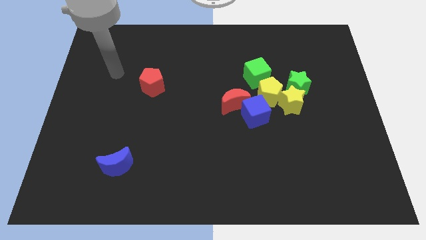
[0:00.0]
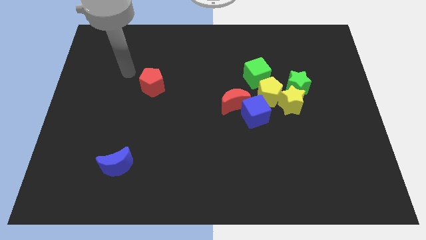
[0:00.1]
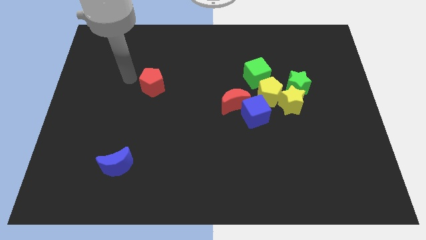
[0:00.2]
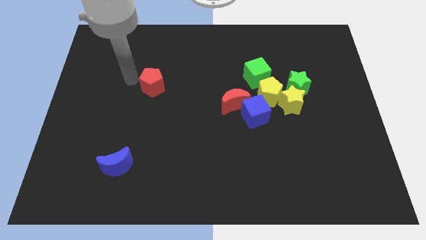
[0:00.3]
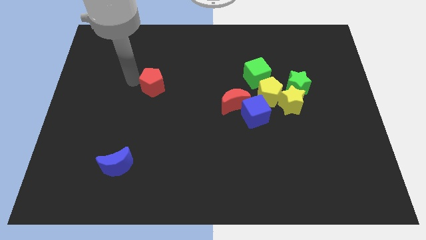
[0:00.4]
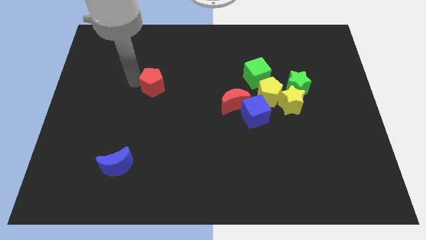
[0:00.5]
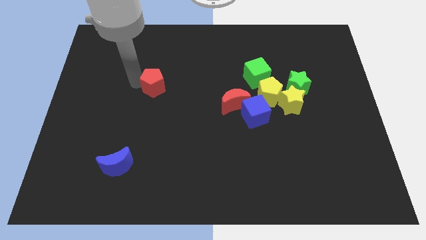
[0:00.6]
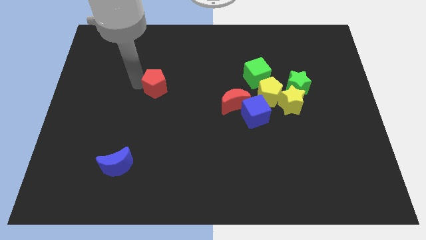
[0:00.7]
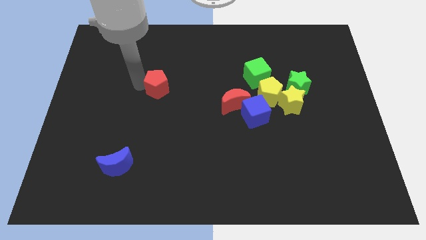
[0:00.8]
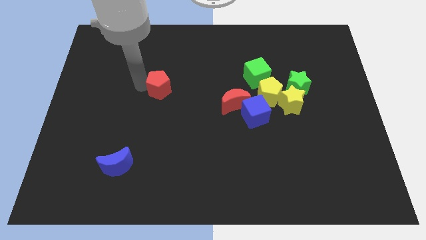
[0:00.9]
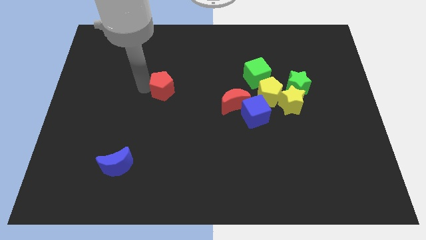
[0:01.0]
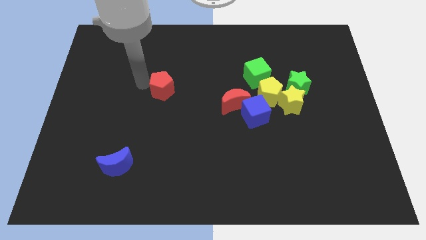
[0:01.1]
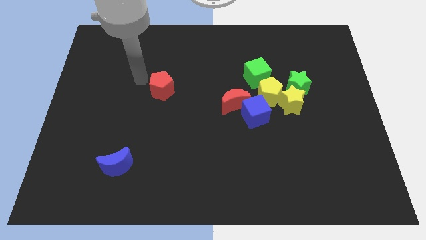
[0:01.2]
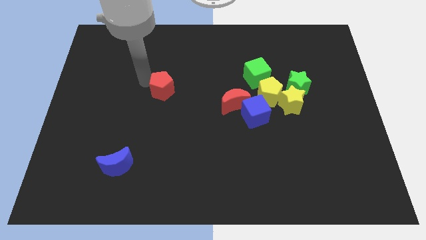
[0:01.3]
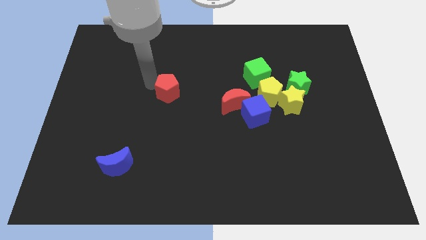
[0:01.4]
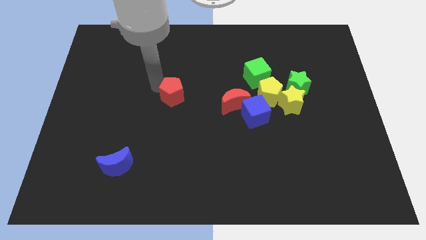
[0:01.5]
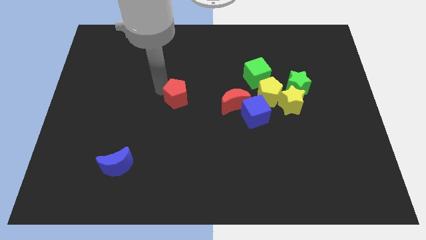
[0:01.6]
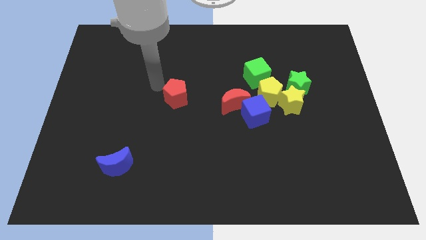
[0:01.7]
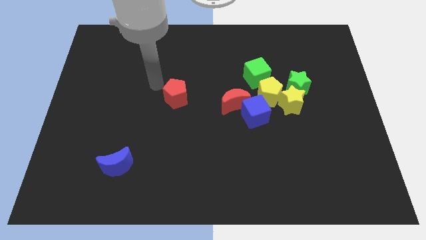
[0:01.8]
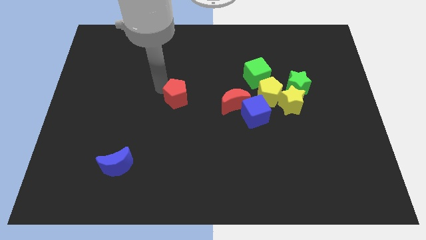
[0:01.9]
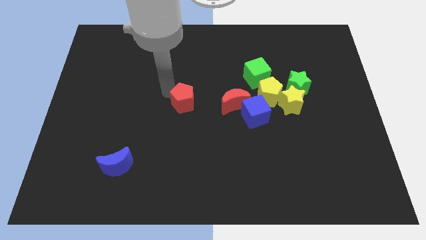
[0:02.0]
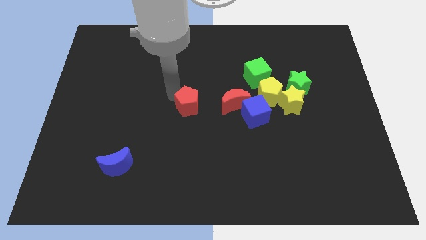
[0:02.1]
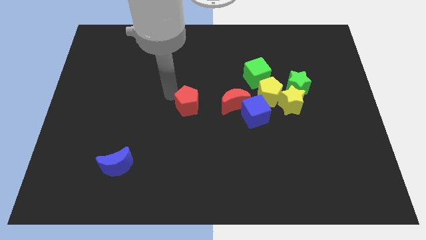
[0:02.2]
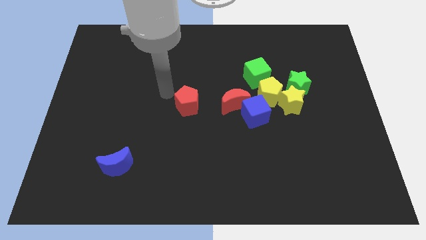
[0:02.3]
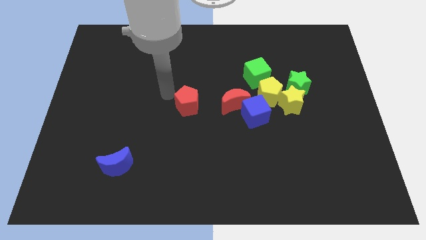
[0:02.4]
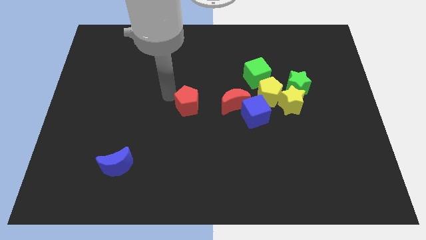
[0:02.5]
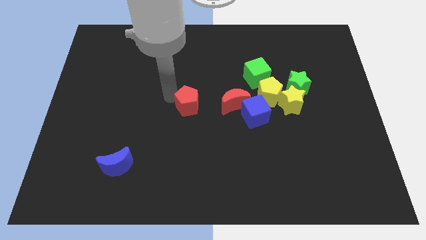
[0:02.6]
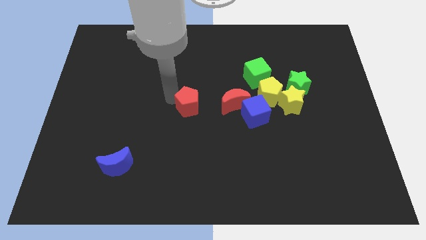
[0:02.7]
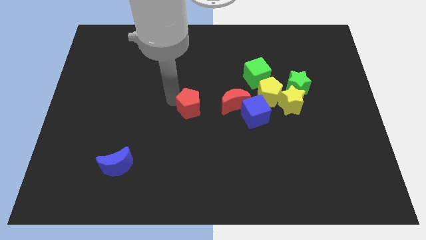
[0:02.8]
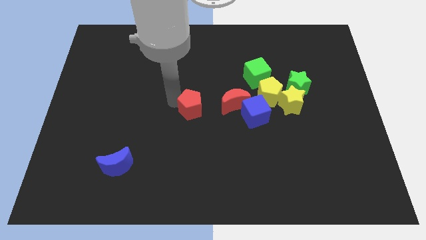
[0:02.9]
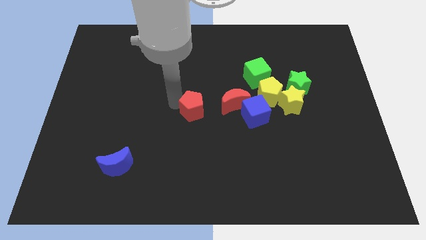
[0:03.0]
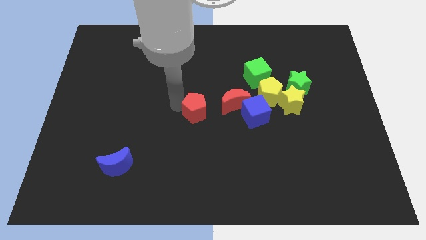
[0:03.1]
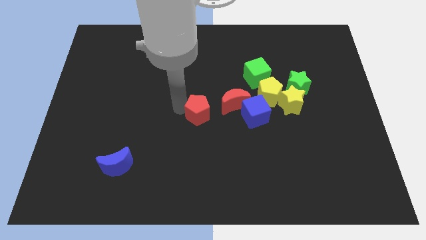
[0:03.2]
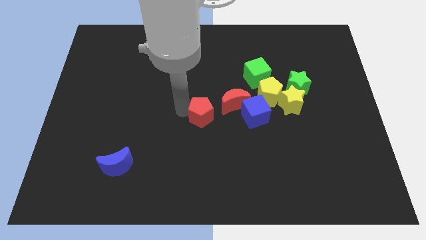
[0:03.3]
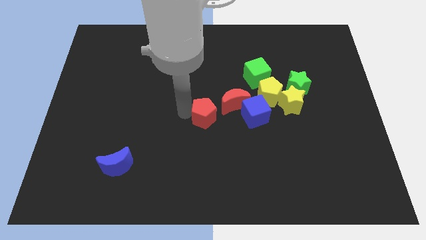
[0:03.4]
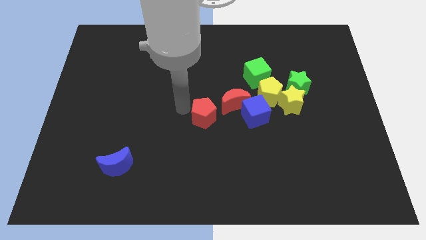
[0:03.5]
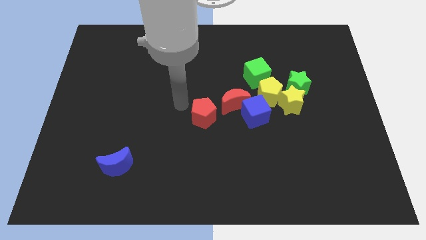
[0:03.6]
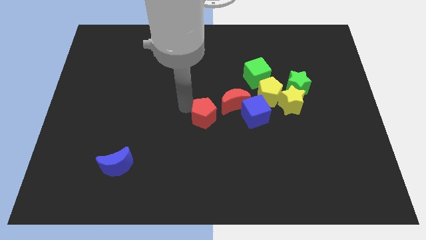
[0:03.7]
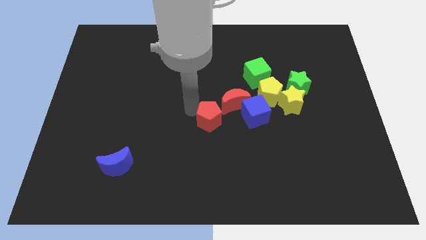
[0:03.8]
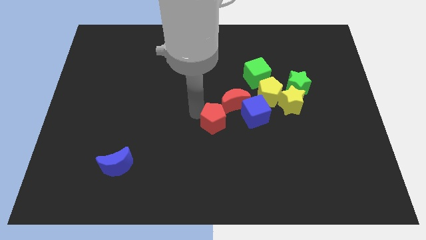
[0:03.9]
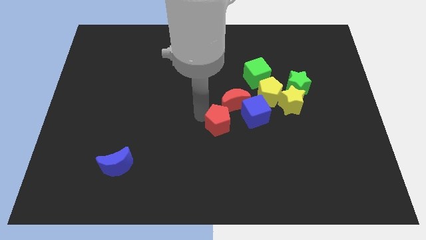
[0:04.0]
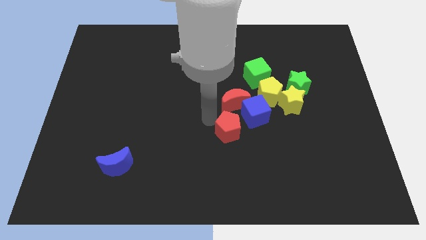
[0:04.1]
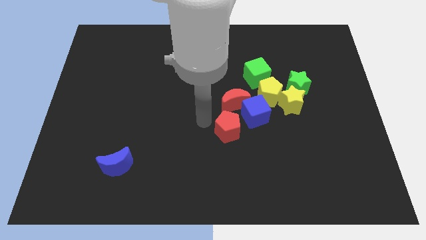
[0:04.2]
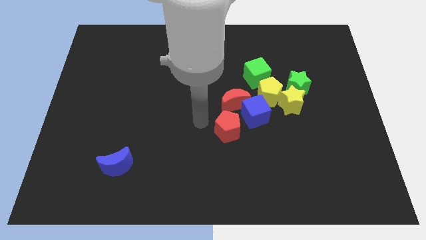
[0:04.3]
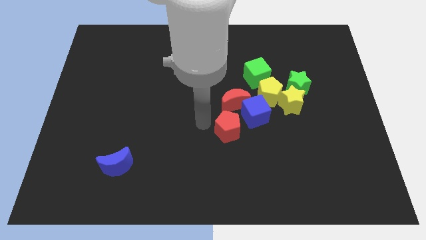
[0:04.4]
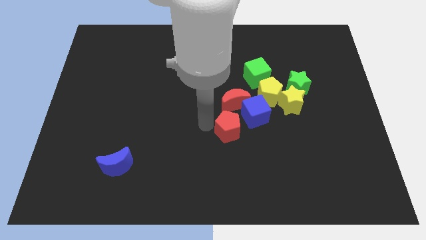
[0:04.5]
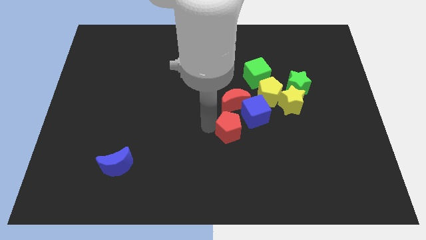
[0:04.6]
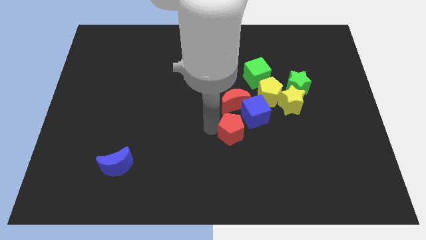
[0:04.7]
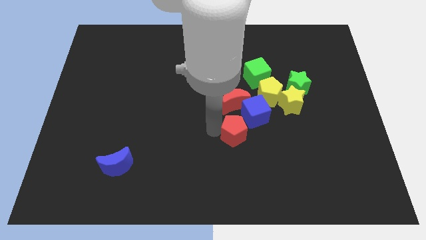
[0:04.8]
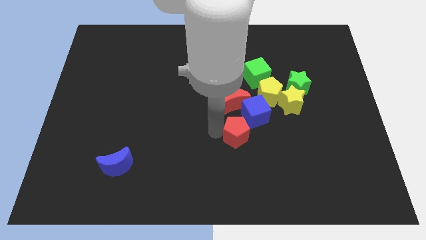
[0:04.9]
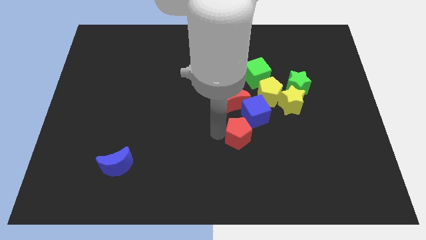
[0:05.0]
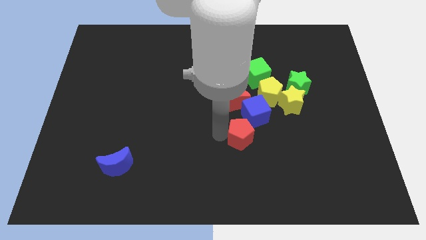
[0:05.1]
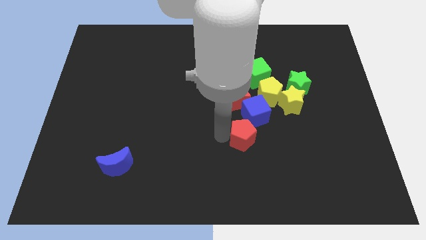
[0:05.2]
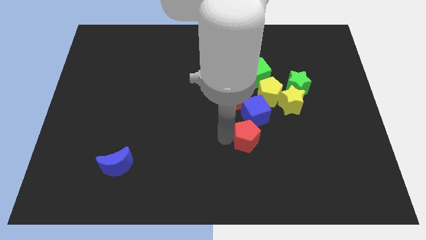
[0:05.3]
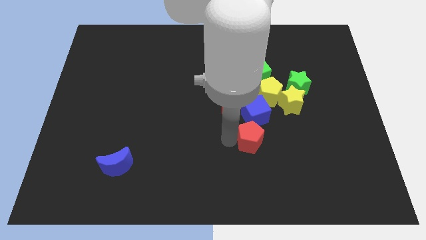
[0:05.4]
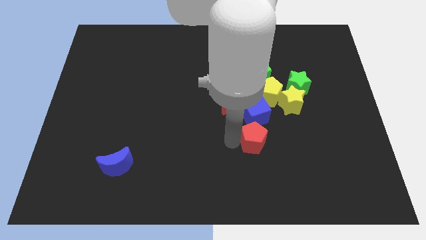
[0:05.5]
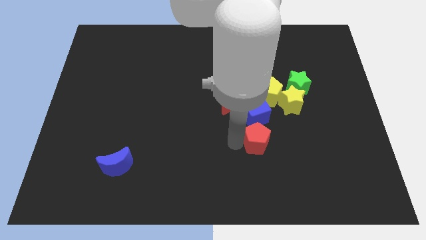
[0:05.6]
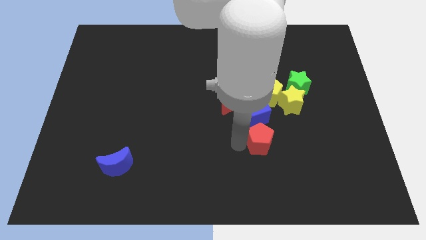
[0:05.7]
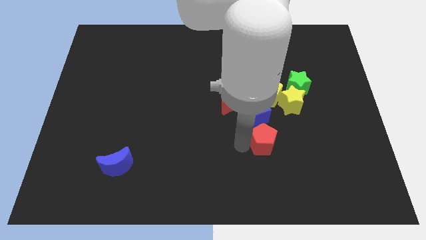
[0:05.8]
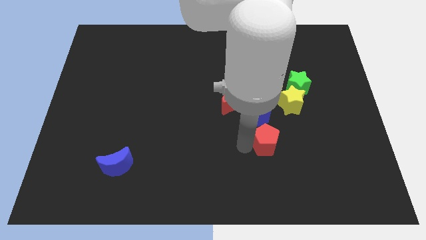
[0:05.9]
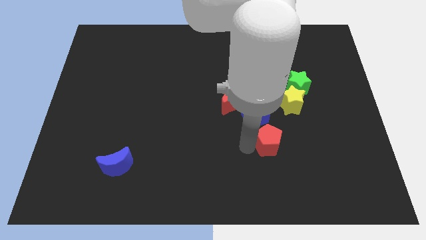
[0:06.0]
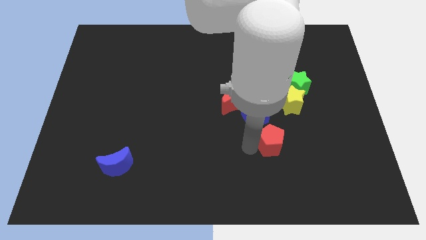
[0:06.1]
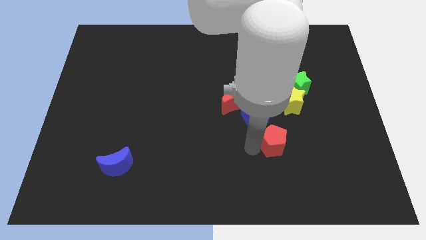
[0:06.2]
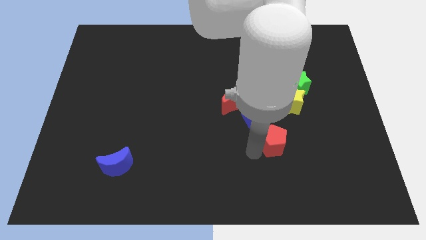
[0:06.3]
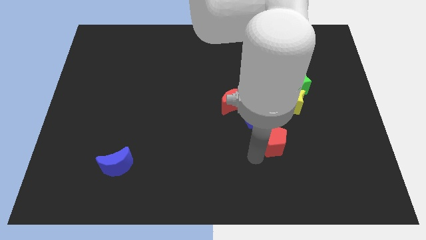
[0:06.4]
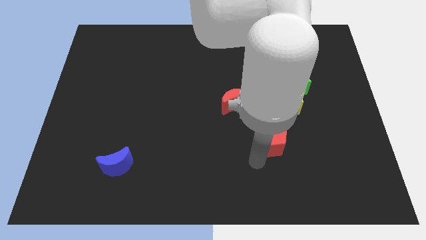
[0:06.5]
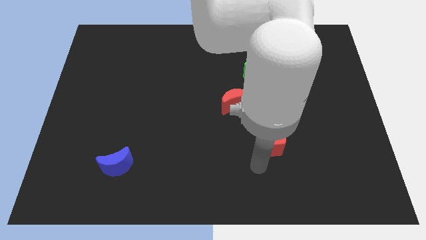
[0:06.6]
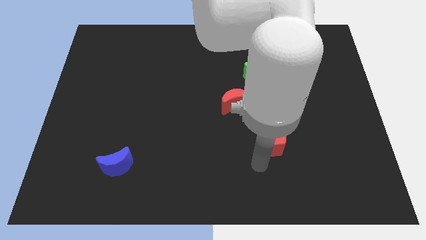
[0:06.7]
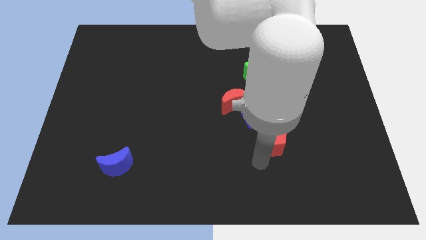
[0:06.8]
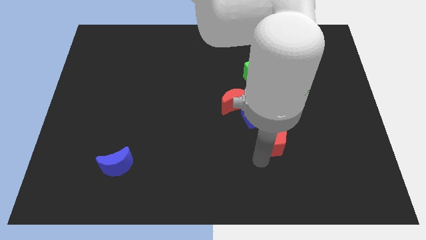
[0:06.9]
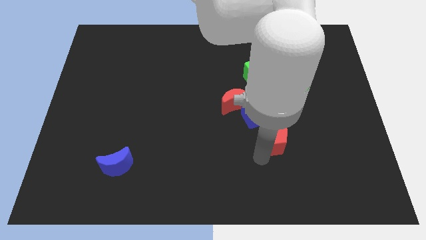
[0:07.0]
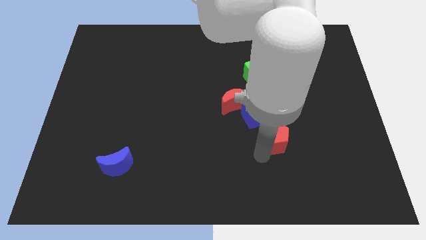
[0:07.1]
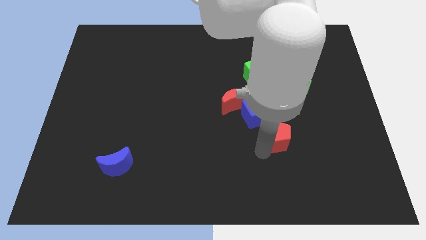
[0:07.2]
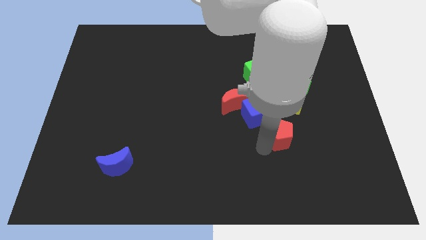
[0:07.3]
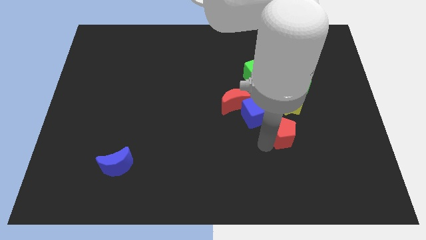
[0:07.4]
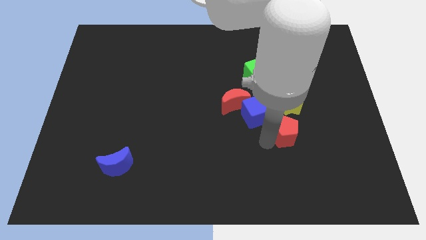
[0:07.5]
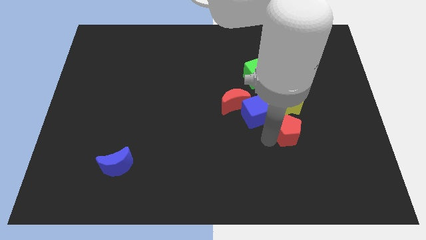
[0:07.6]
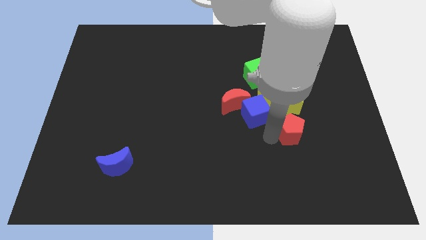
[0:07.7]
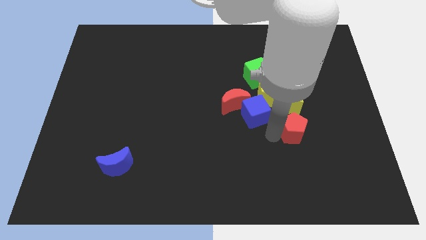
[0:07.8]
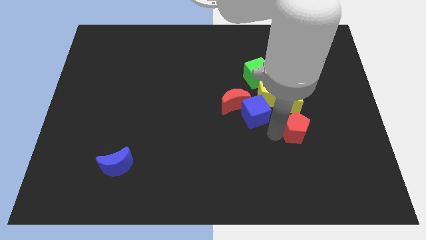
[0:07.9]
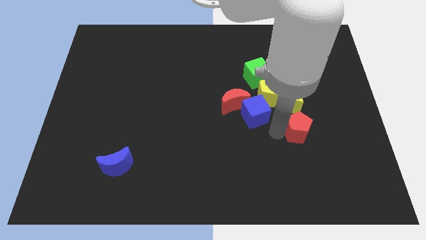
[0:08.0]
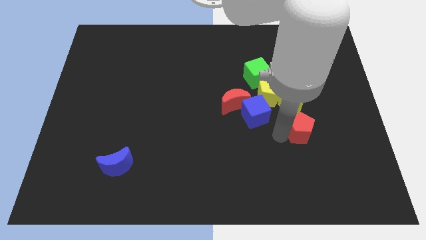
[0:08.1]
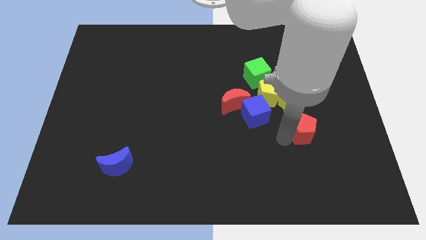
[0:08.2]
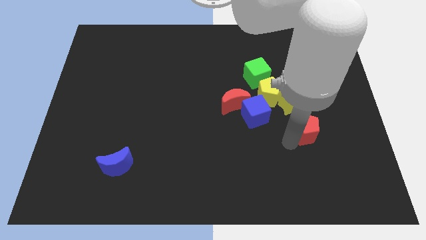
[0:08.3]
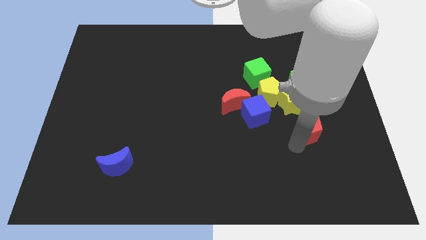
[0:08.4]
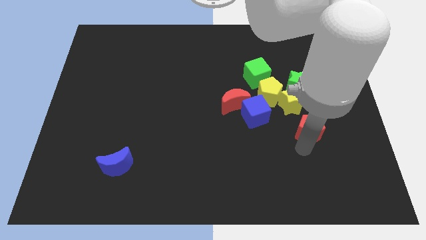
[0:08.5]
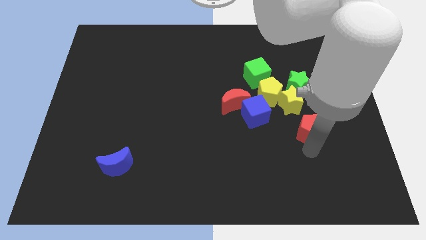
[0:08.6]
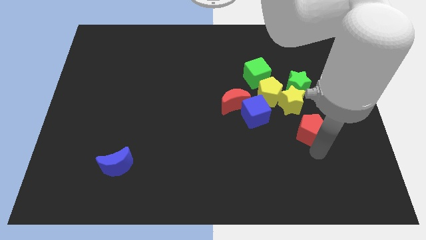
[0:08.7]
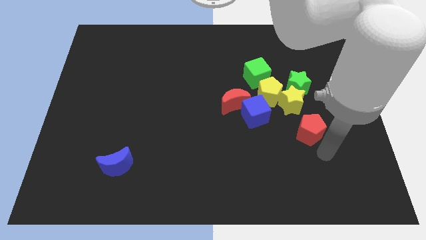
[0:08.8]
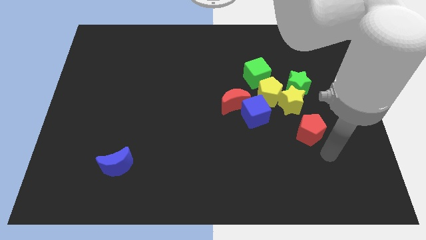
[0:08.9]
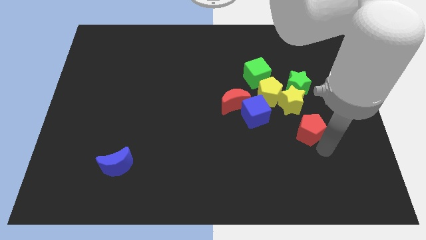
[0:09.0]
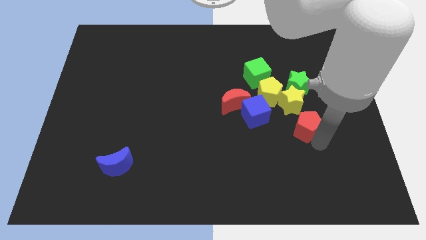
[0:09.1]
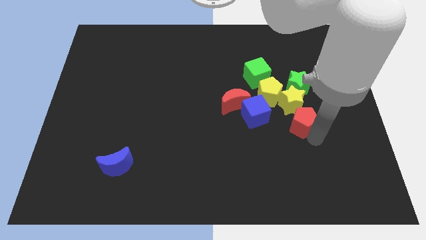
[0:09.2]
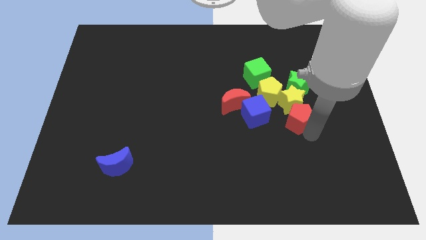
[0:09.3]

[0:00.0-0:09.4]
push the red pentagon next to the yellow star
